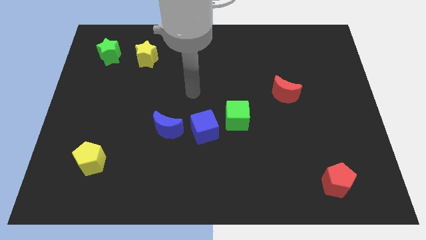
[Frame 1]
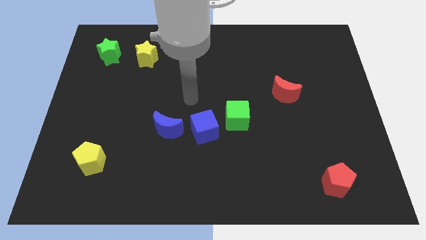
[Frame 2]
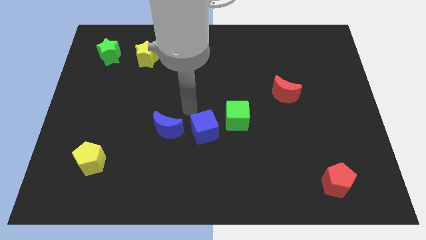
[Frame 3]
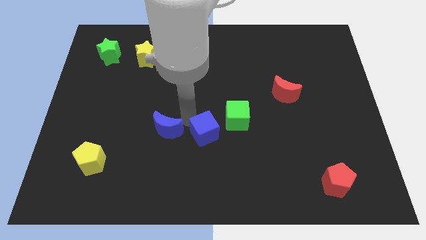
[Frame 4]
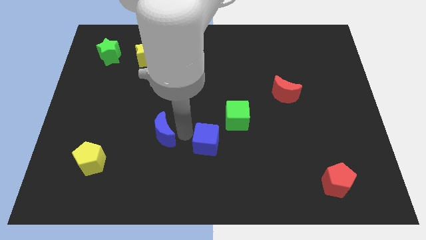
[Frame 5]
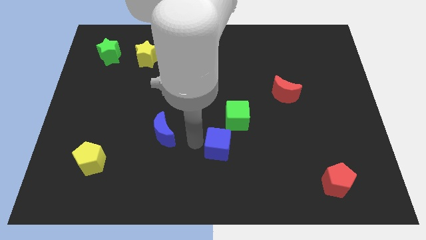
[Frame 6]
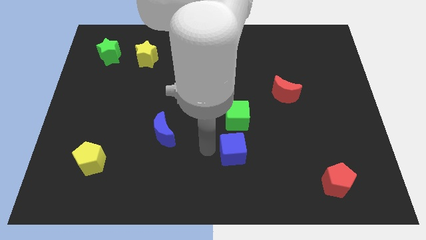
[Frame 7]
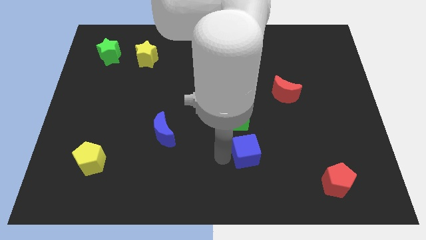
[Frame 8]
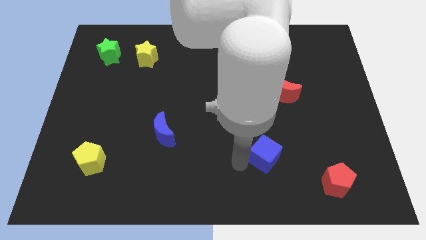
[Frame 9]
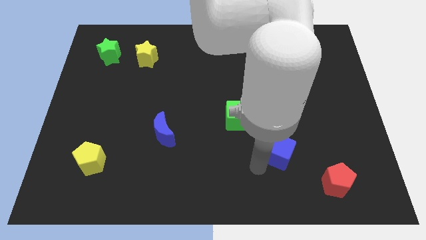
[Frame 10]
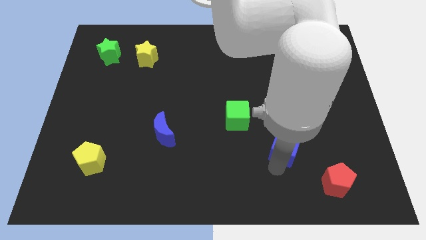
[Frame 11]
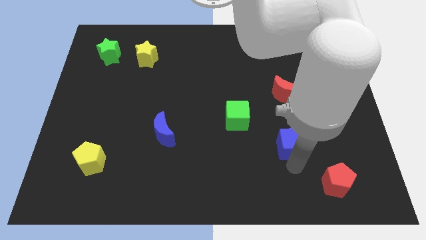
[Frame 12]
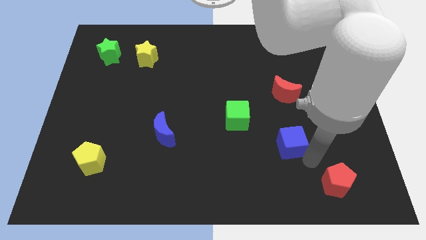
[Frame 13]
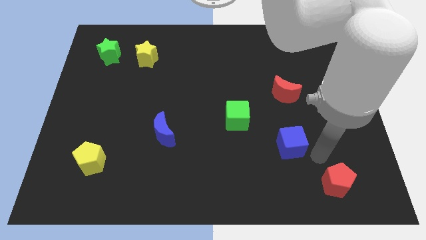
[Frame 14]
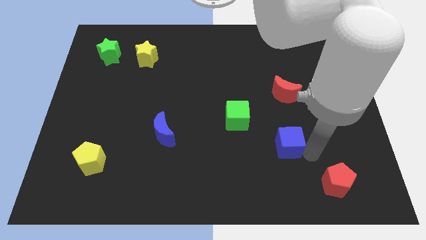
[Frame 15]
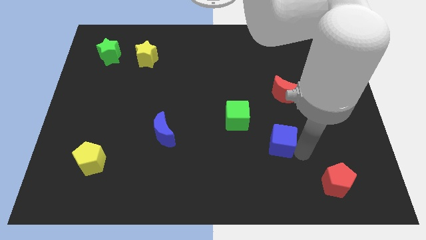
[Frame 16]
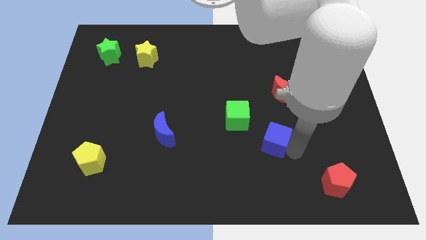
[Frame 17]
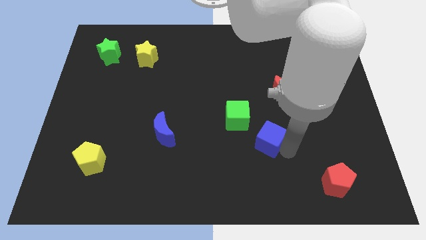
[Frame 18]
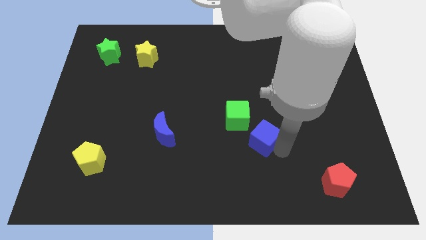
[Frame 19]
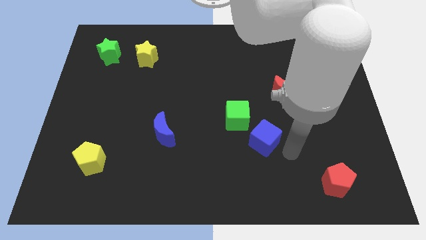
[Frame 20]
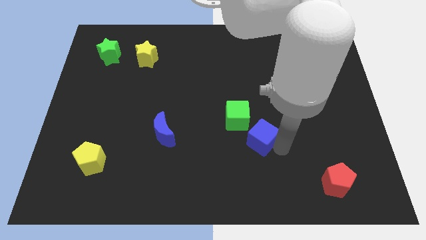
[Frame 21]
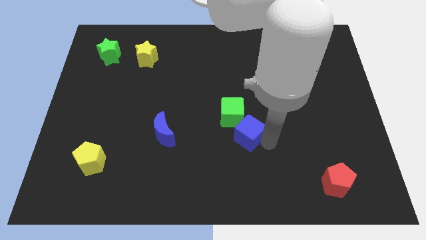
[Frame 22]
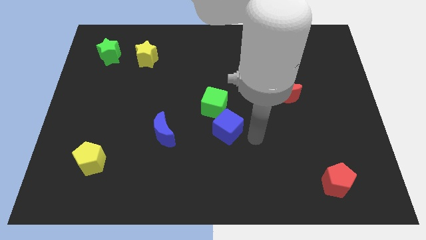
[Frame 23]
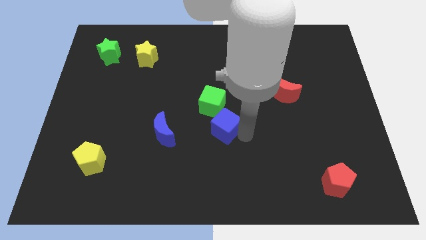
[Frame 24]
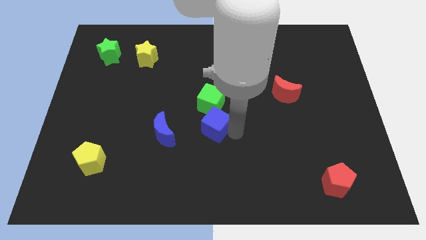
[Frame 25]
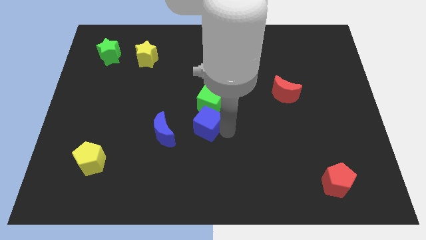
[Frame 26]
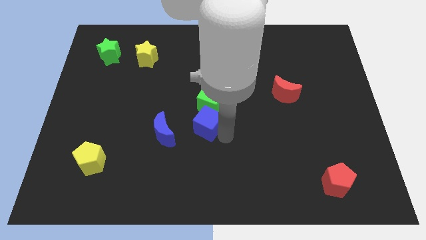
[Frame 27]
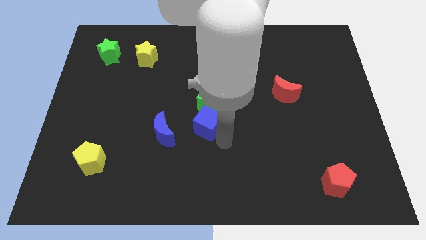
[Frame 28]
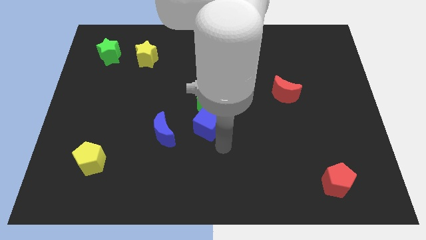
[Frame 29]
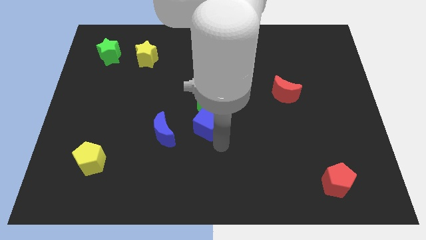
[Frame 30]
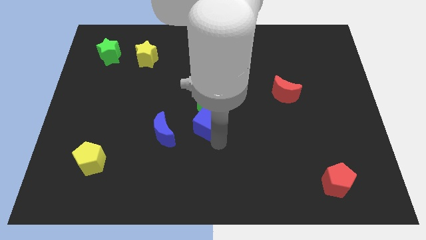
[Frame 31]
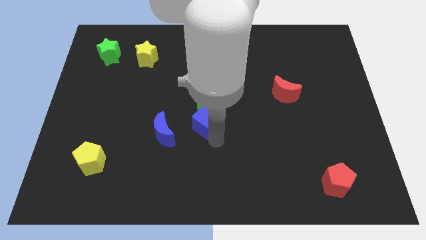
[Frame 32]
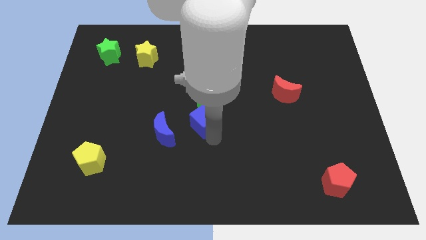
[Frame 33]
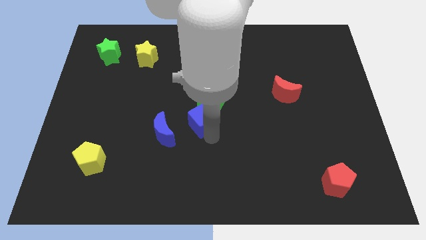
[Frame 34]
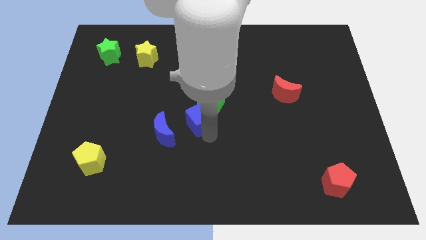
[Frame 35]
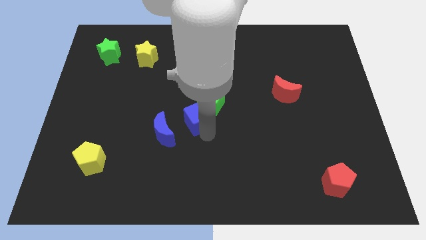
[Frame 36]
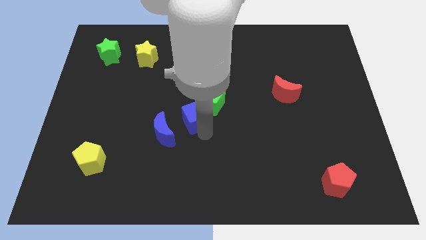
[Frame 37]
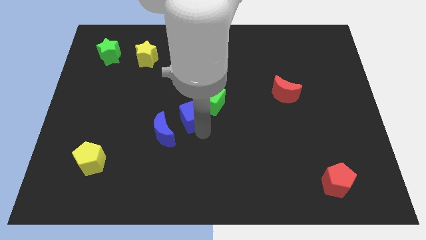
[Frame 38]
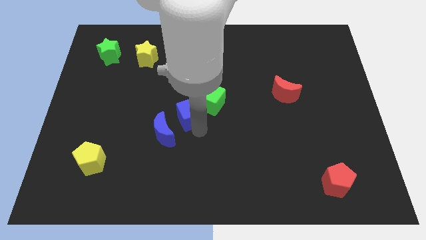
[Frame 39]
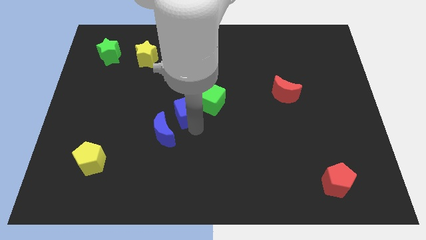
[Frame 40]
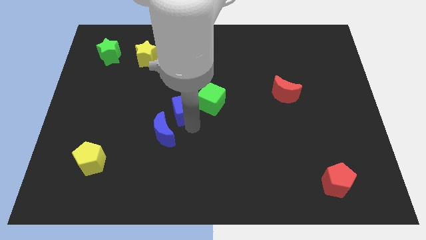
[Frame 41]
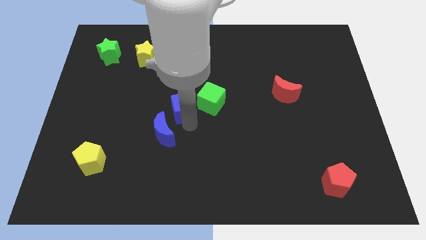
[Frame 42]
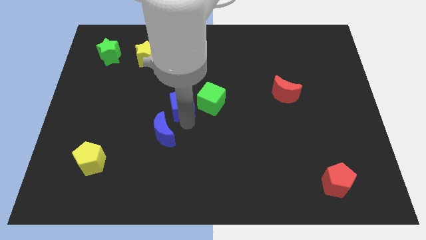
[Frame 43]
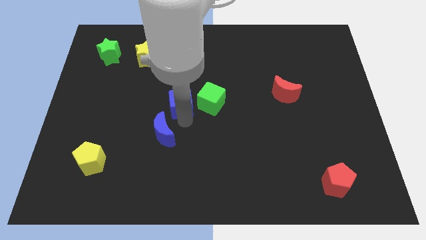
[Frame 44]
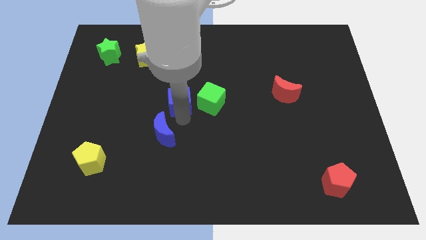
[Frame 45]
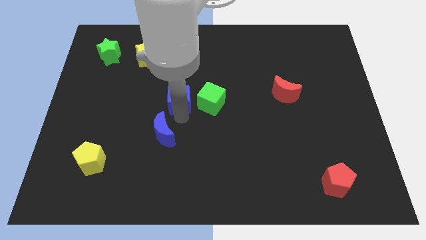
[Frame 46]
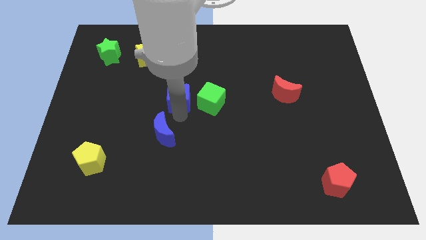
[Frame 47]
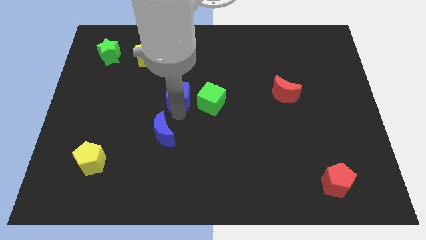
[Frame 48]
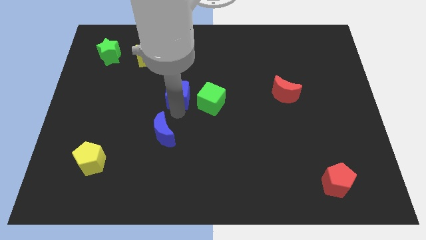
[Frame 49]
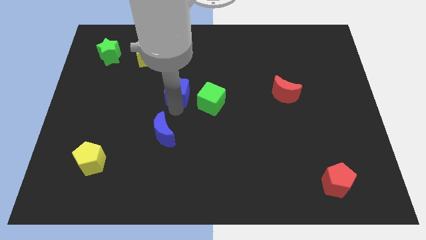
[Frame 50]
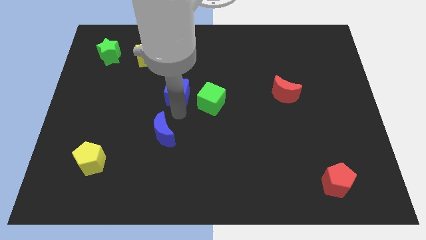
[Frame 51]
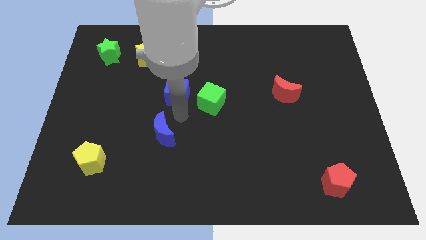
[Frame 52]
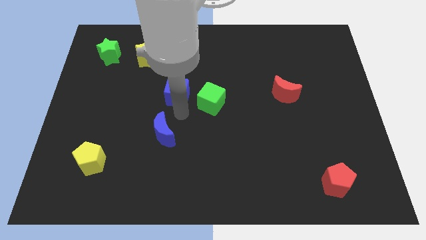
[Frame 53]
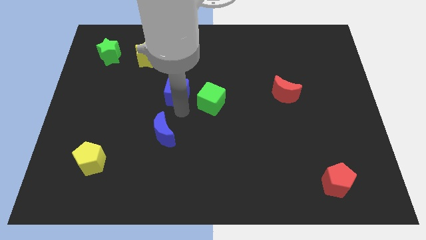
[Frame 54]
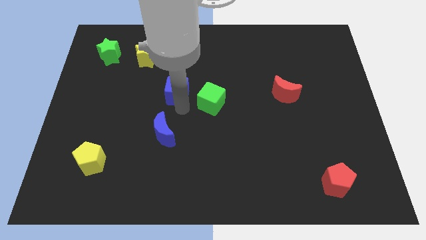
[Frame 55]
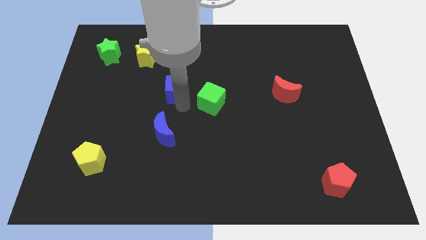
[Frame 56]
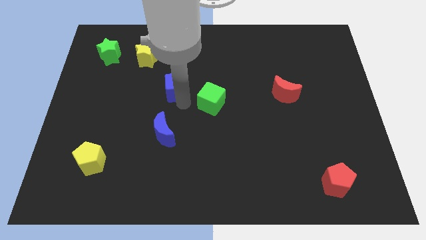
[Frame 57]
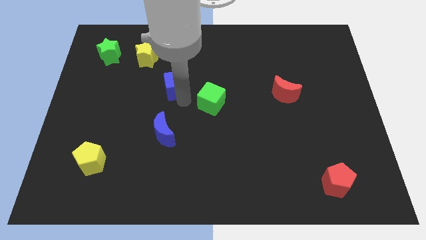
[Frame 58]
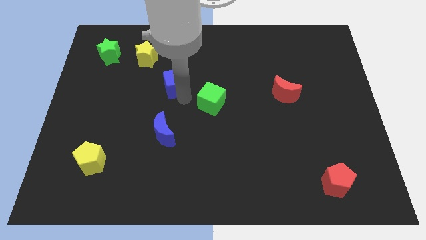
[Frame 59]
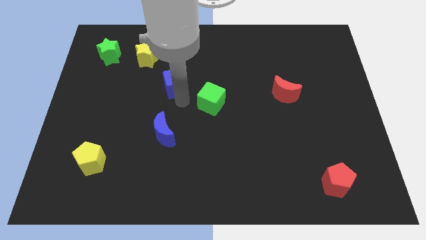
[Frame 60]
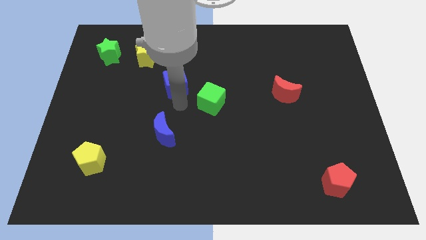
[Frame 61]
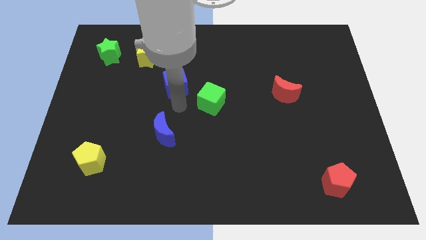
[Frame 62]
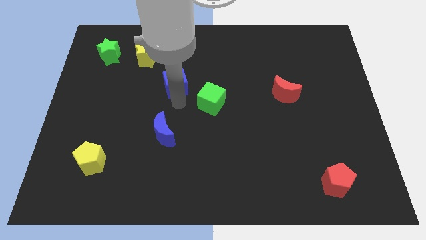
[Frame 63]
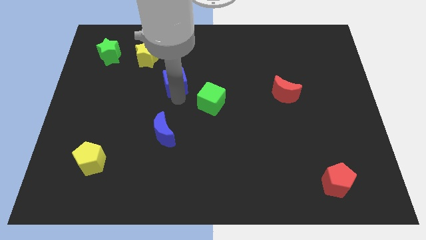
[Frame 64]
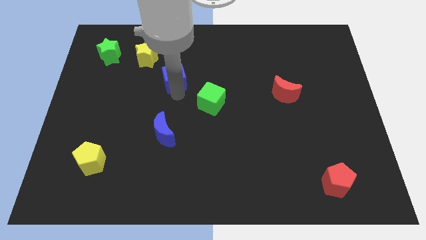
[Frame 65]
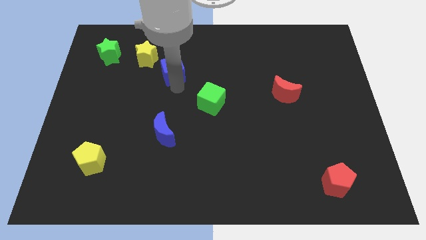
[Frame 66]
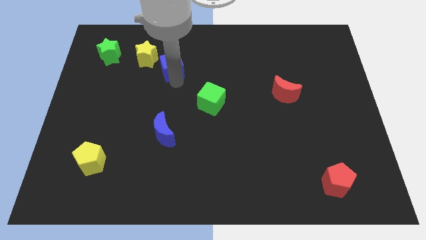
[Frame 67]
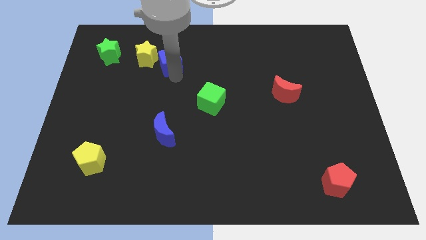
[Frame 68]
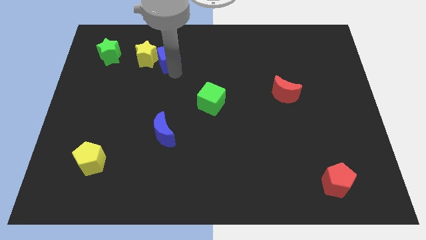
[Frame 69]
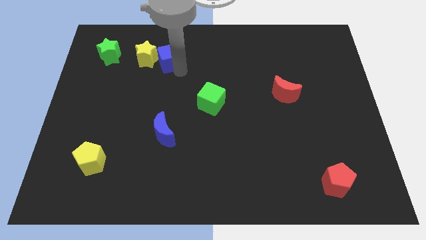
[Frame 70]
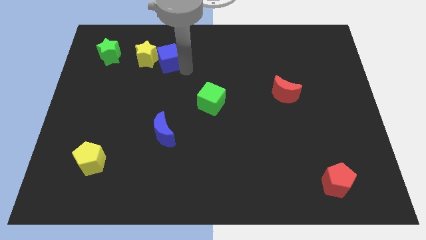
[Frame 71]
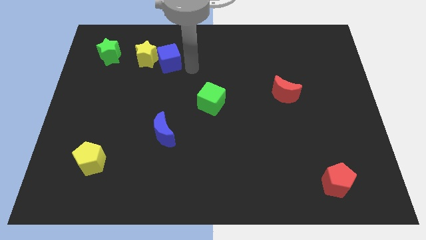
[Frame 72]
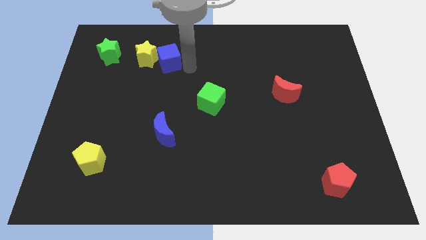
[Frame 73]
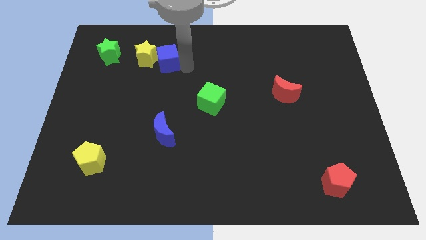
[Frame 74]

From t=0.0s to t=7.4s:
push the blue cube right of the green star
